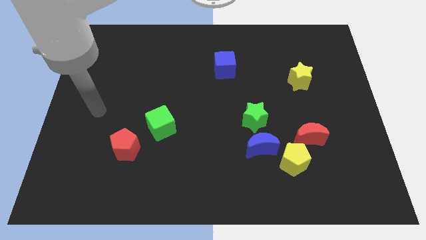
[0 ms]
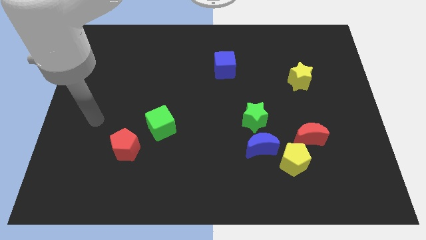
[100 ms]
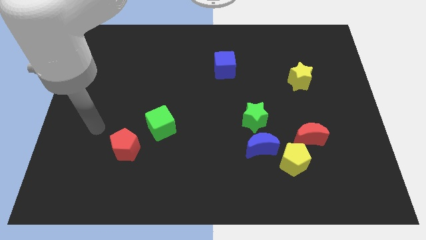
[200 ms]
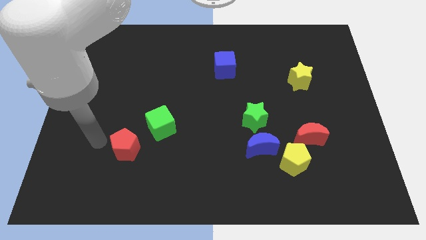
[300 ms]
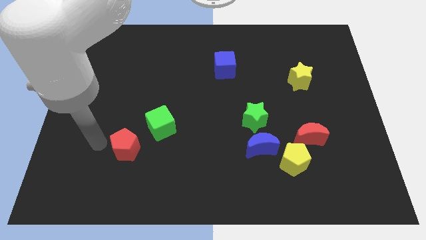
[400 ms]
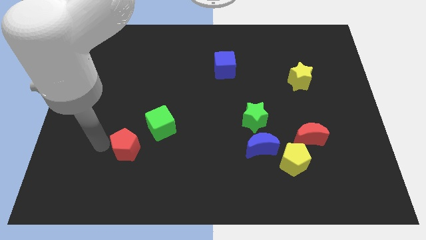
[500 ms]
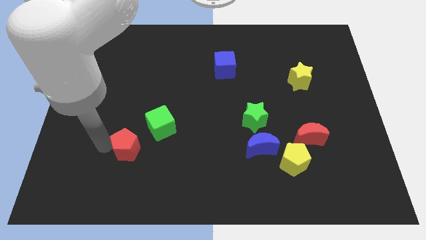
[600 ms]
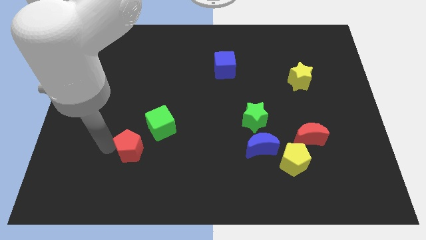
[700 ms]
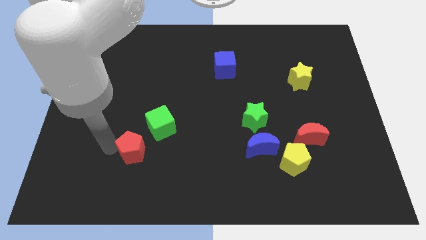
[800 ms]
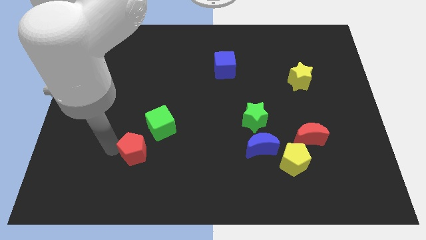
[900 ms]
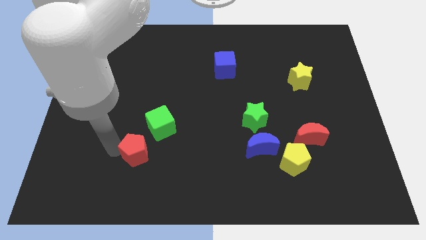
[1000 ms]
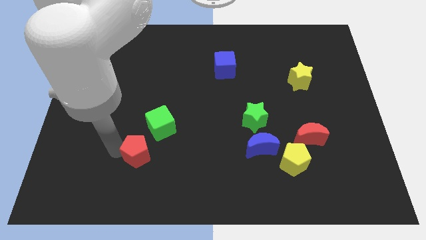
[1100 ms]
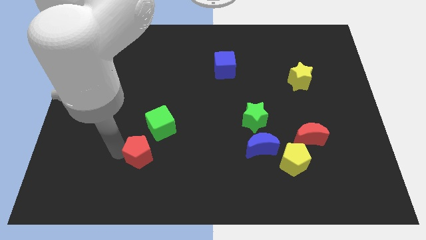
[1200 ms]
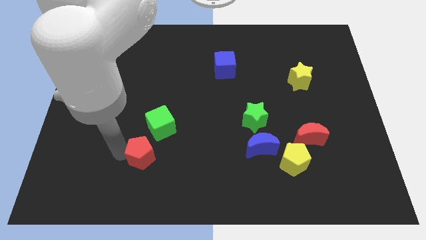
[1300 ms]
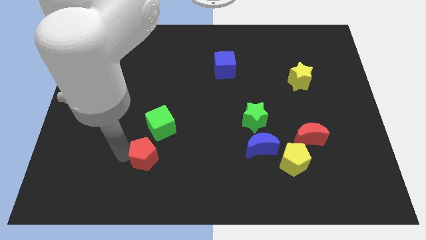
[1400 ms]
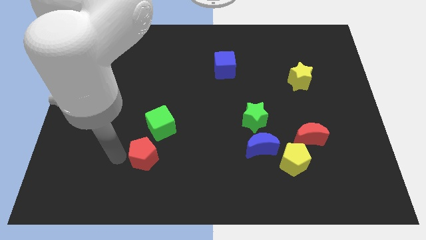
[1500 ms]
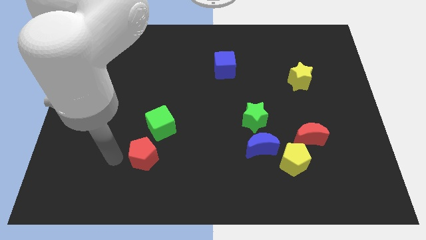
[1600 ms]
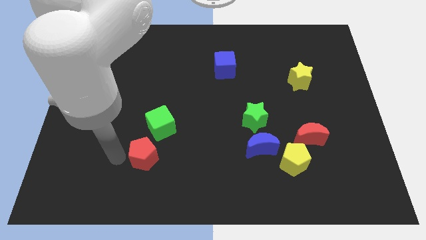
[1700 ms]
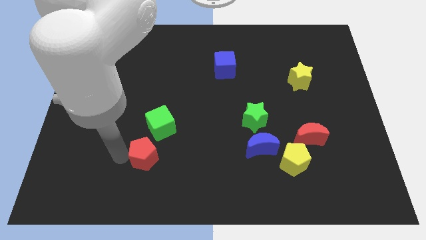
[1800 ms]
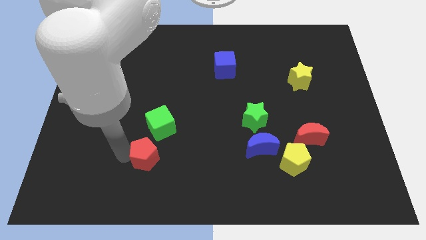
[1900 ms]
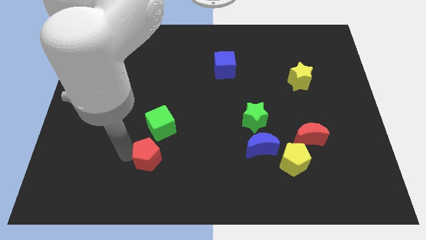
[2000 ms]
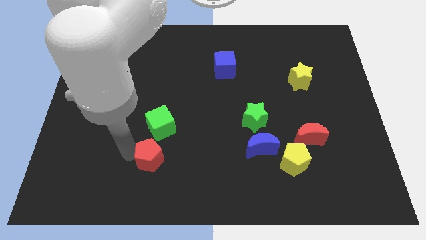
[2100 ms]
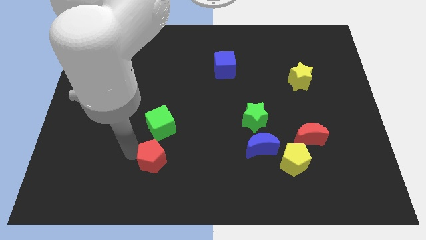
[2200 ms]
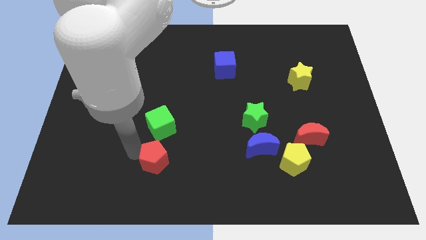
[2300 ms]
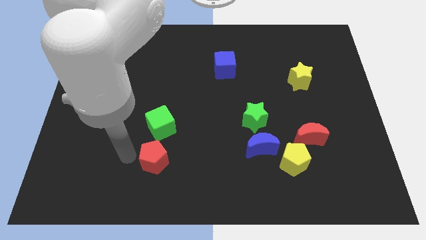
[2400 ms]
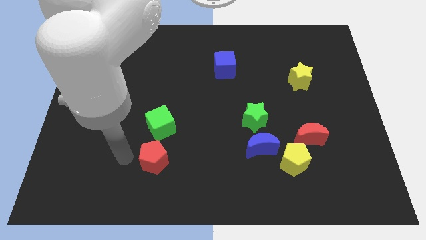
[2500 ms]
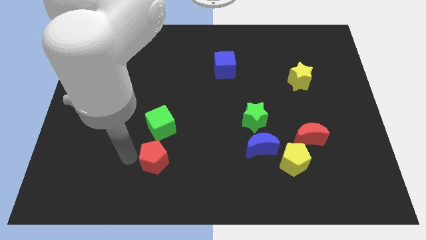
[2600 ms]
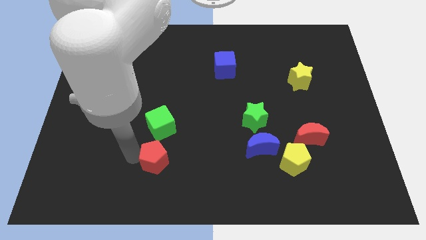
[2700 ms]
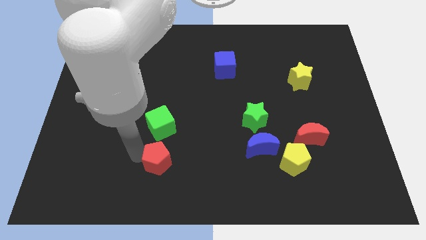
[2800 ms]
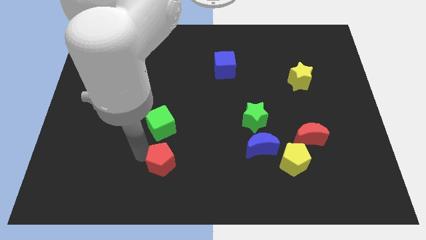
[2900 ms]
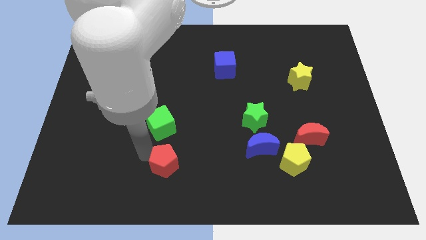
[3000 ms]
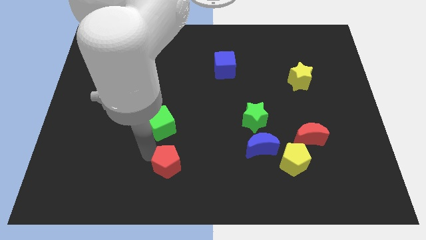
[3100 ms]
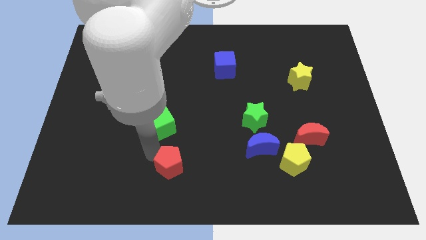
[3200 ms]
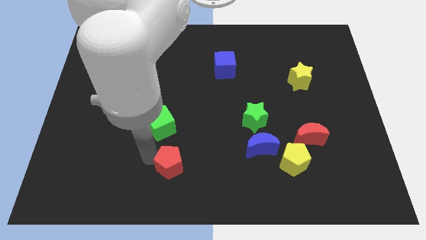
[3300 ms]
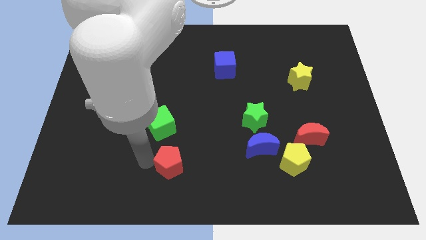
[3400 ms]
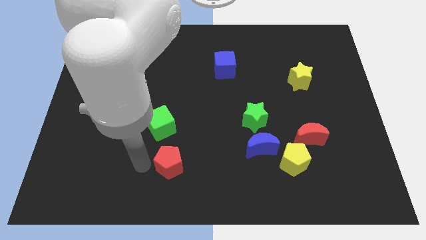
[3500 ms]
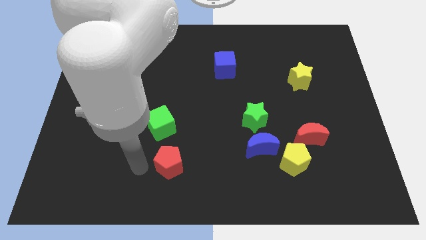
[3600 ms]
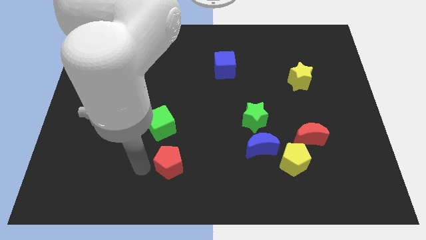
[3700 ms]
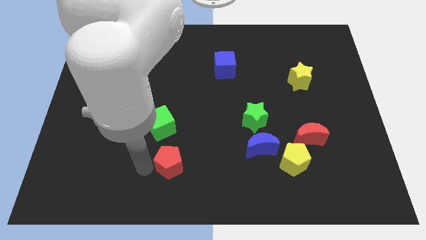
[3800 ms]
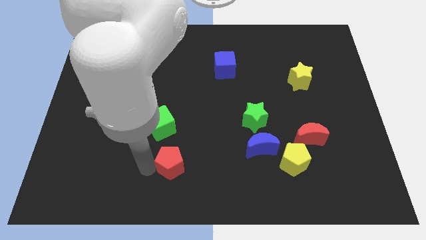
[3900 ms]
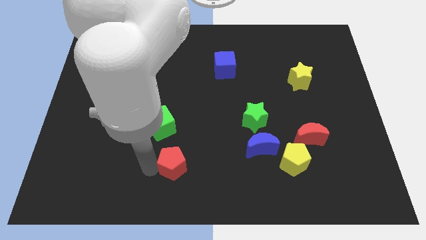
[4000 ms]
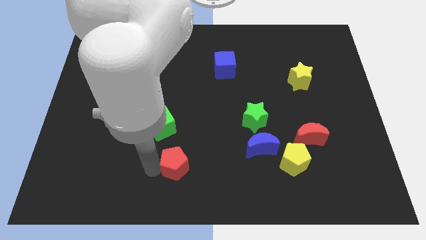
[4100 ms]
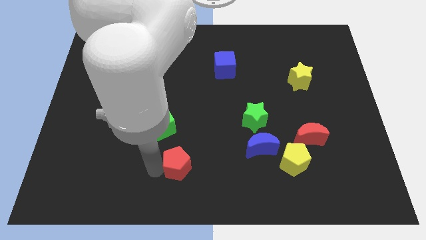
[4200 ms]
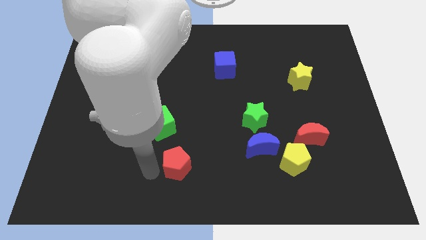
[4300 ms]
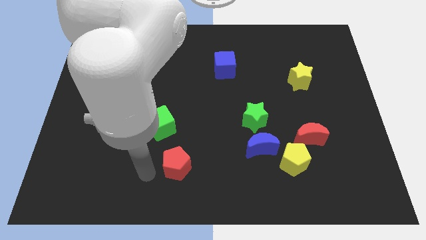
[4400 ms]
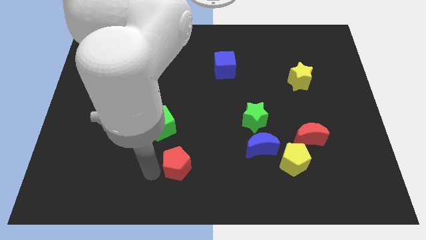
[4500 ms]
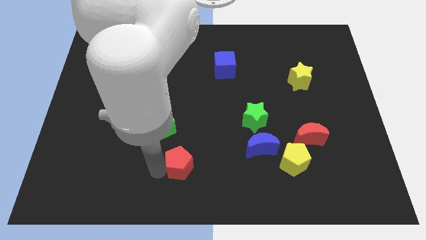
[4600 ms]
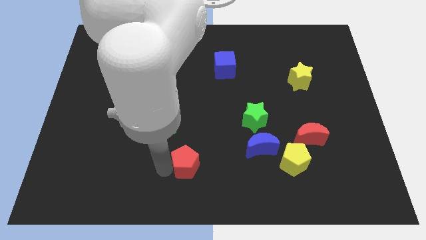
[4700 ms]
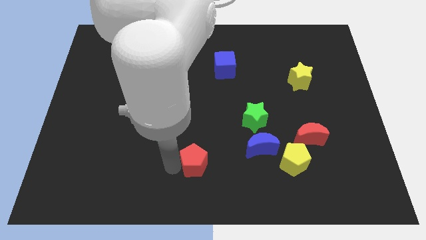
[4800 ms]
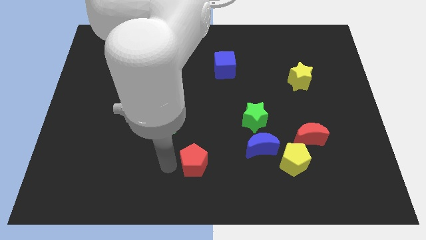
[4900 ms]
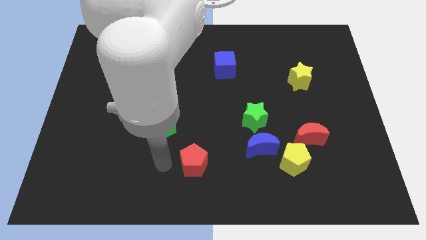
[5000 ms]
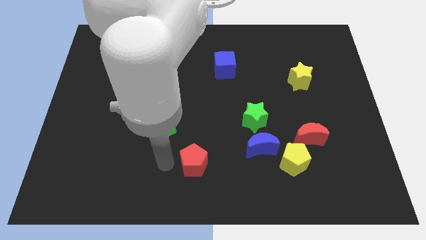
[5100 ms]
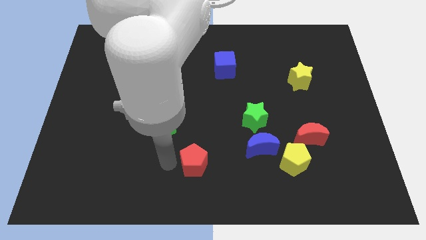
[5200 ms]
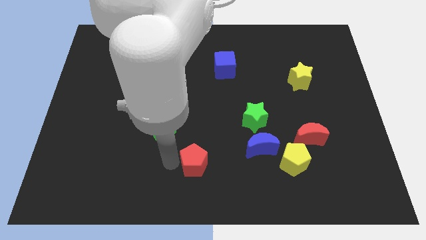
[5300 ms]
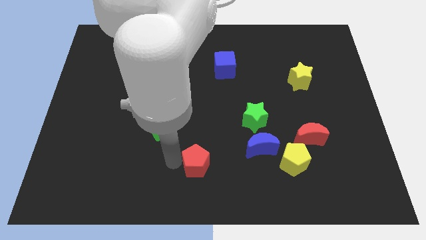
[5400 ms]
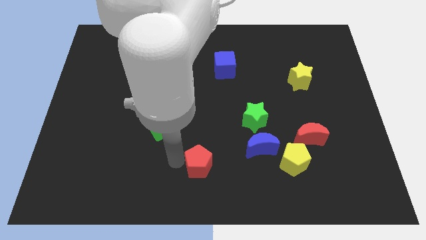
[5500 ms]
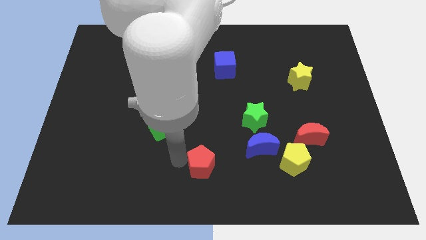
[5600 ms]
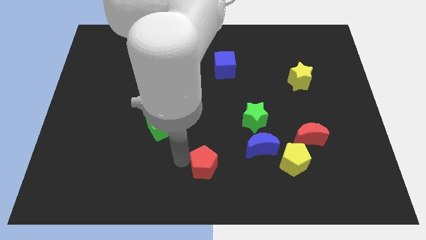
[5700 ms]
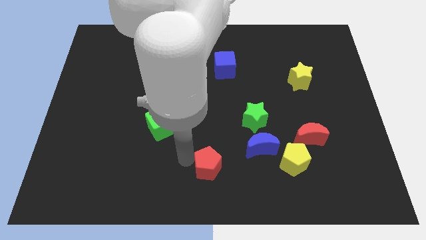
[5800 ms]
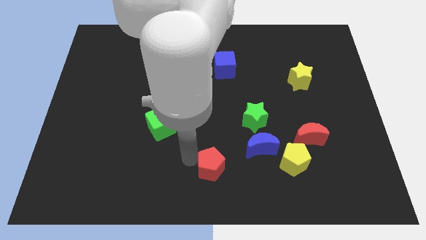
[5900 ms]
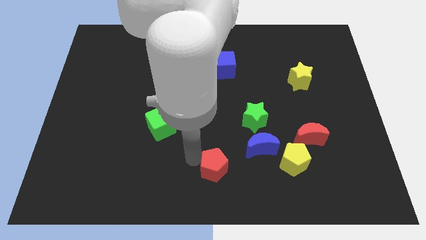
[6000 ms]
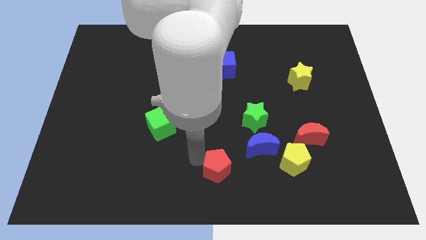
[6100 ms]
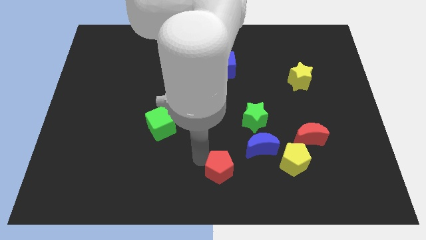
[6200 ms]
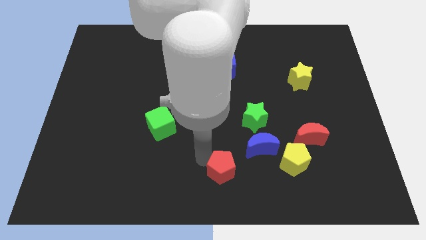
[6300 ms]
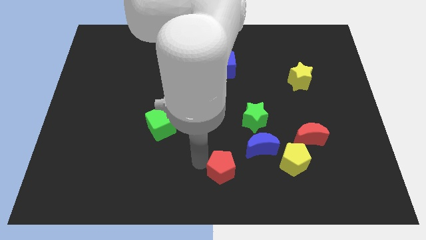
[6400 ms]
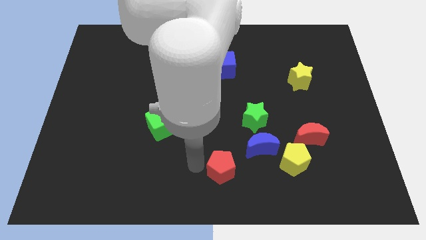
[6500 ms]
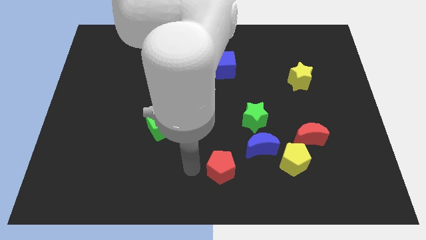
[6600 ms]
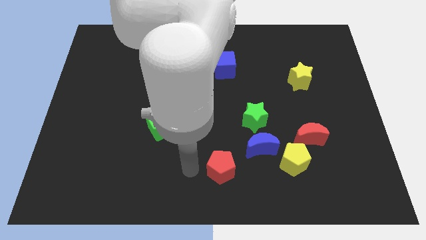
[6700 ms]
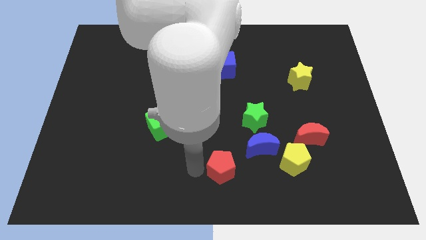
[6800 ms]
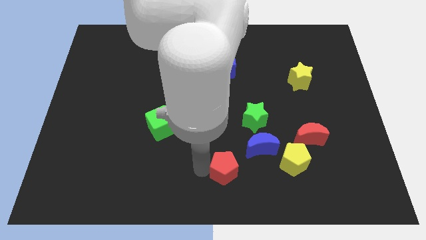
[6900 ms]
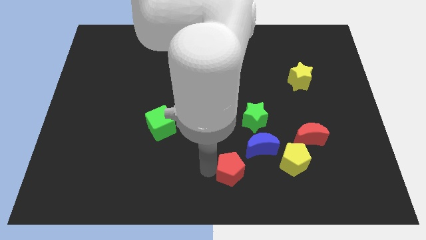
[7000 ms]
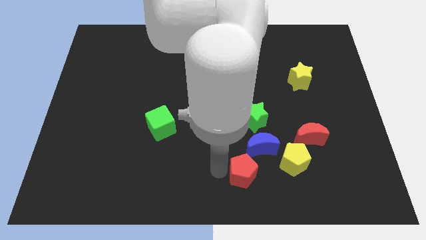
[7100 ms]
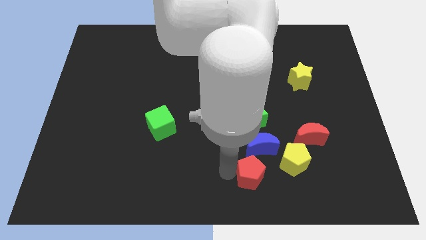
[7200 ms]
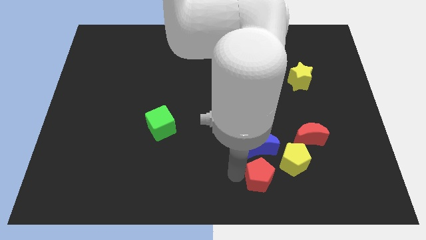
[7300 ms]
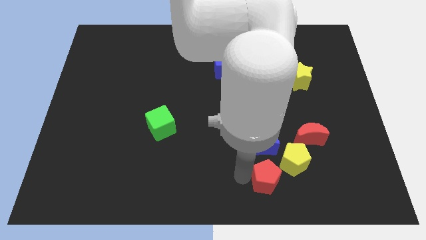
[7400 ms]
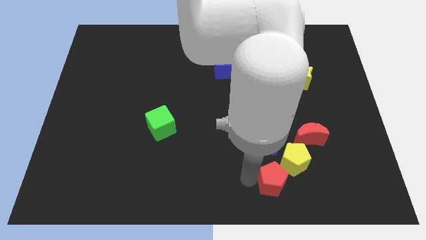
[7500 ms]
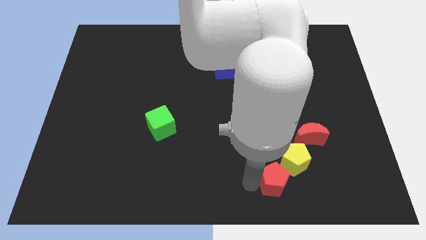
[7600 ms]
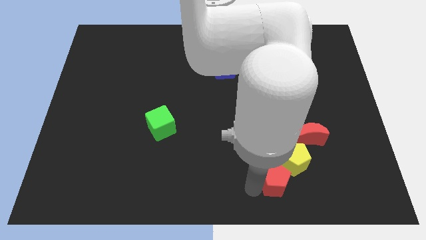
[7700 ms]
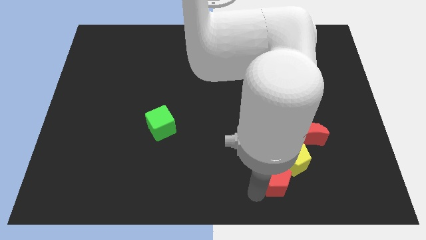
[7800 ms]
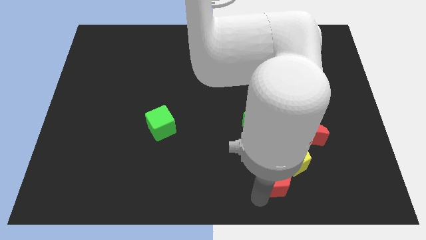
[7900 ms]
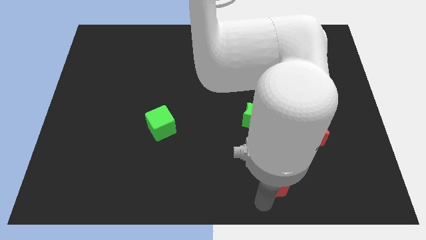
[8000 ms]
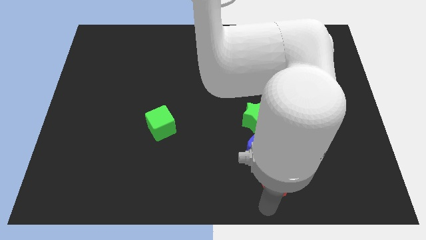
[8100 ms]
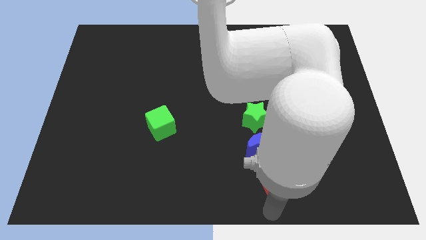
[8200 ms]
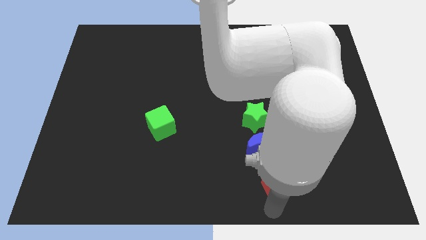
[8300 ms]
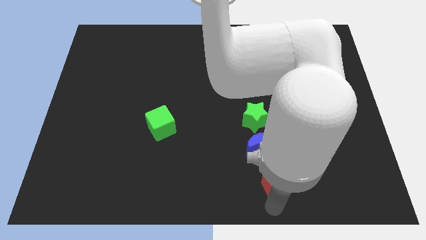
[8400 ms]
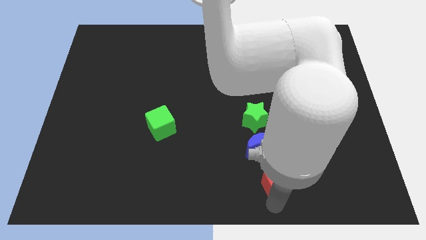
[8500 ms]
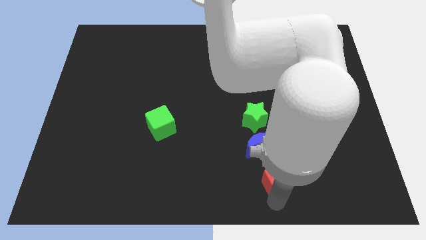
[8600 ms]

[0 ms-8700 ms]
put the red pentagon close to the yellow pentagon
